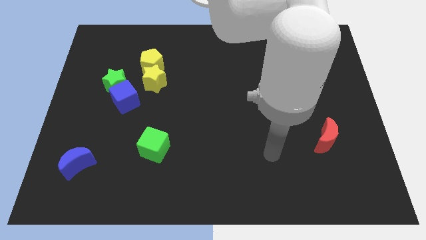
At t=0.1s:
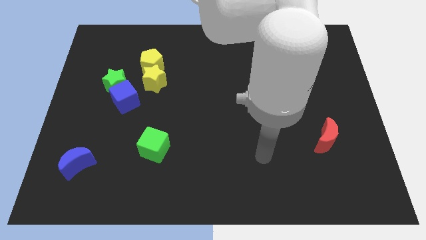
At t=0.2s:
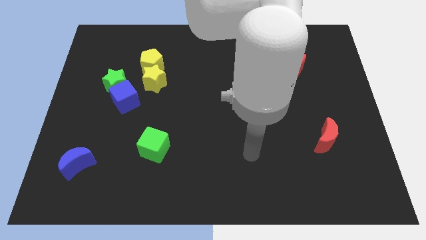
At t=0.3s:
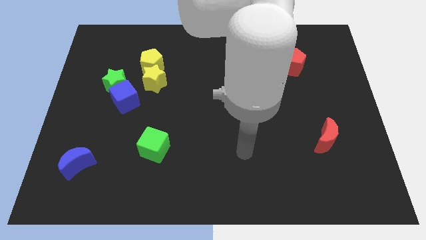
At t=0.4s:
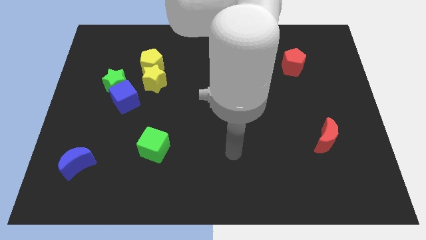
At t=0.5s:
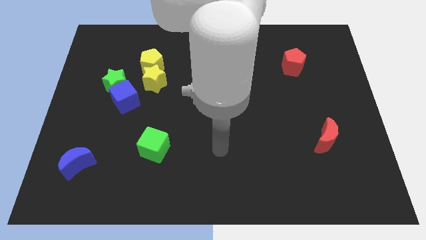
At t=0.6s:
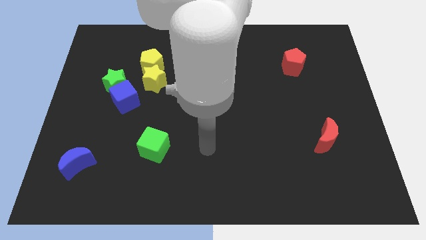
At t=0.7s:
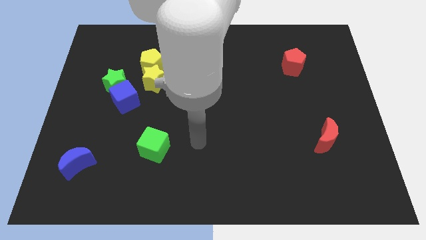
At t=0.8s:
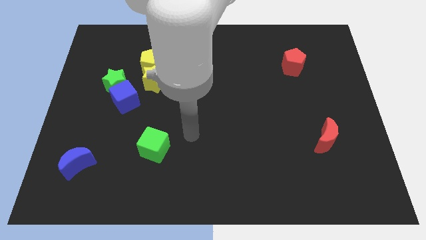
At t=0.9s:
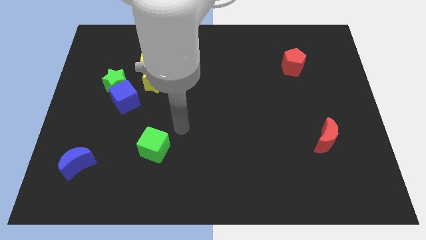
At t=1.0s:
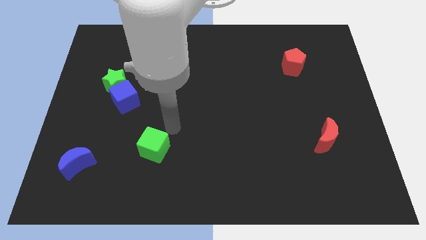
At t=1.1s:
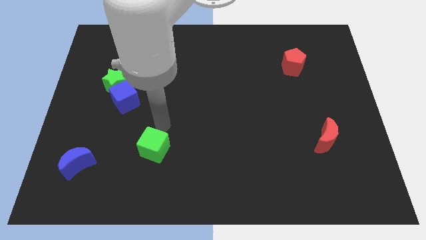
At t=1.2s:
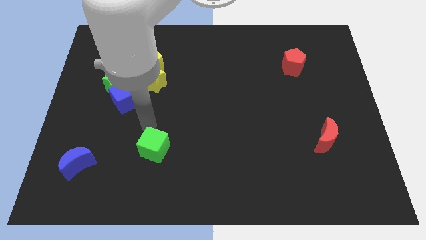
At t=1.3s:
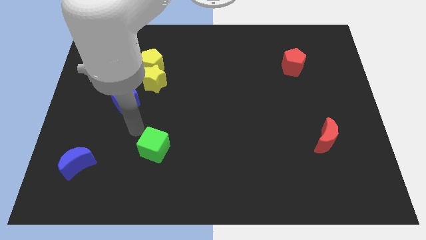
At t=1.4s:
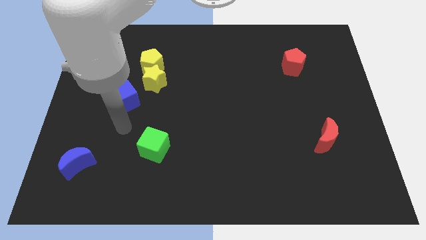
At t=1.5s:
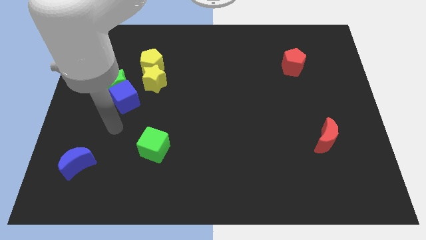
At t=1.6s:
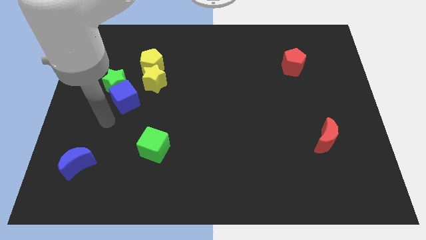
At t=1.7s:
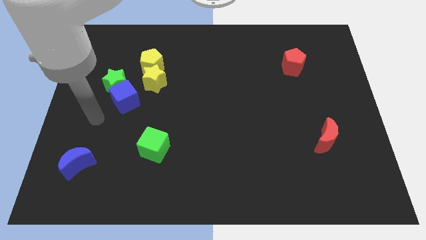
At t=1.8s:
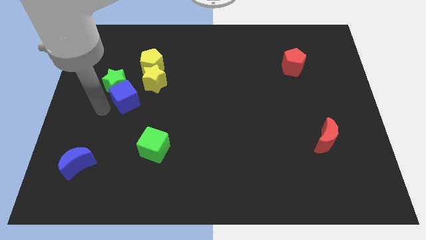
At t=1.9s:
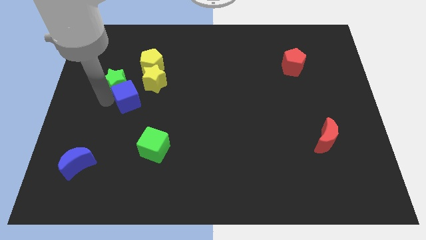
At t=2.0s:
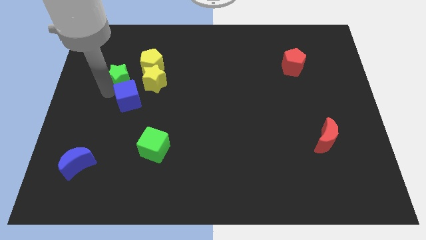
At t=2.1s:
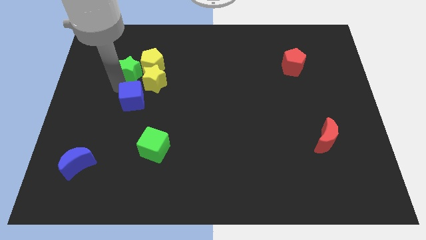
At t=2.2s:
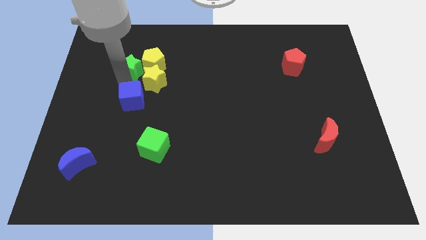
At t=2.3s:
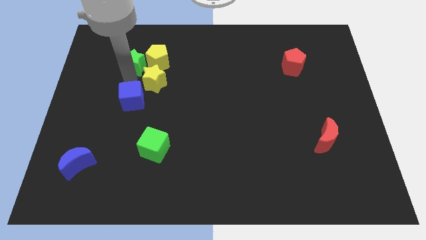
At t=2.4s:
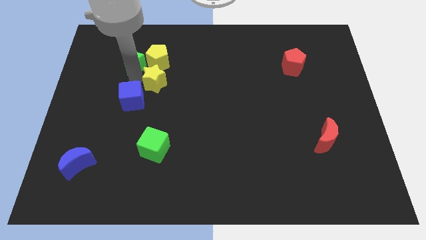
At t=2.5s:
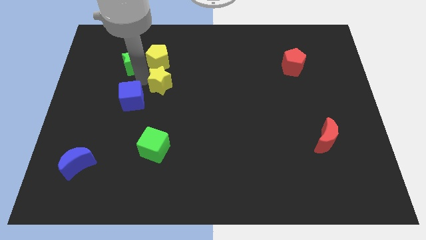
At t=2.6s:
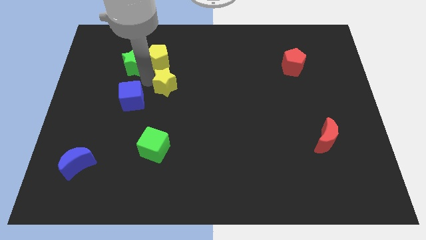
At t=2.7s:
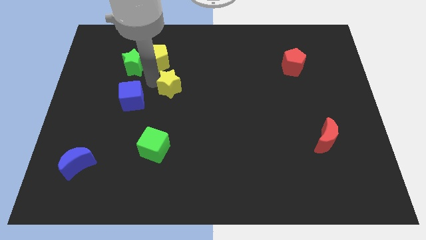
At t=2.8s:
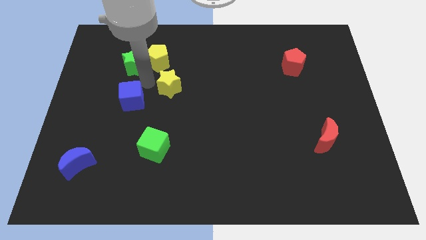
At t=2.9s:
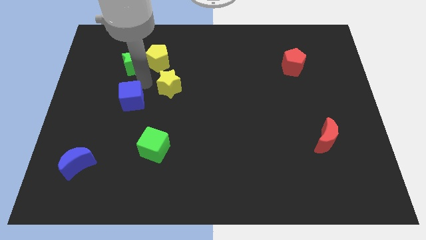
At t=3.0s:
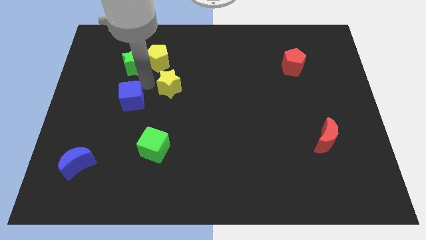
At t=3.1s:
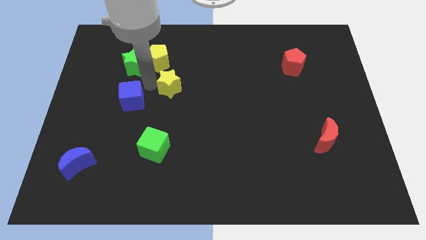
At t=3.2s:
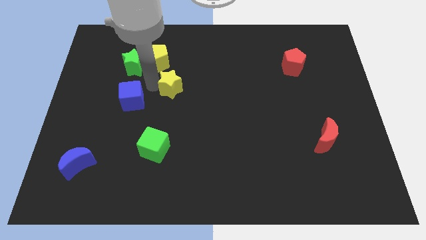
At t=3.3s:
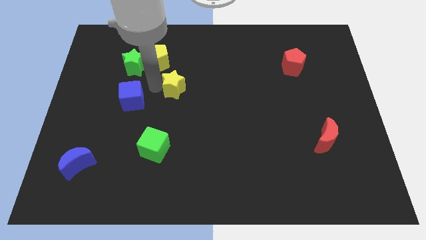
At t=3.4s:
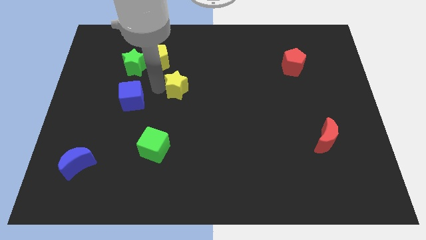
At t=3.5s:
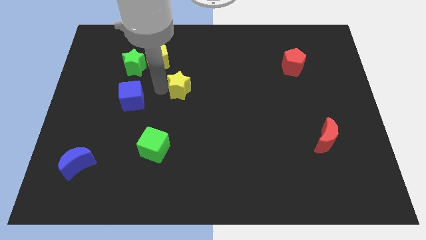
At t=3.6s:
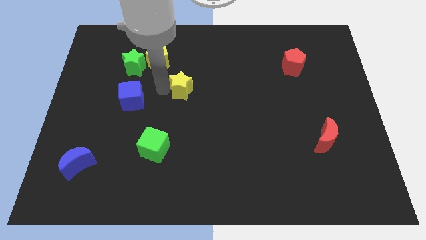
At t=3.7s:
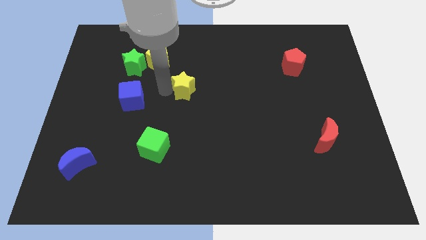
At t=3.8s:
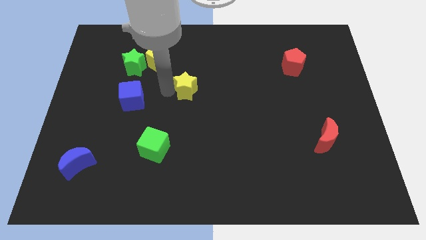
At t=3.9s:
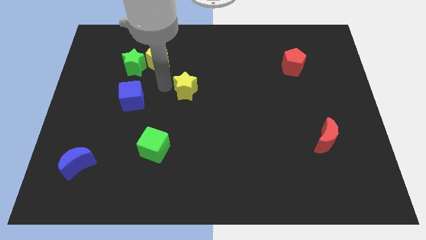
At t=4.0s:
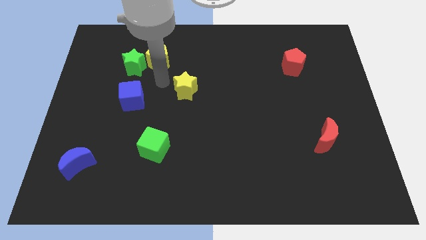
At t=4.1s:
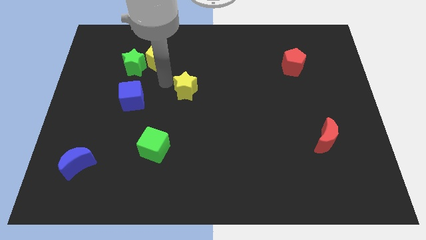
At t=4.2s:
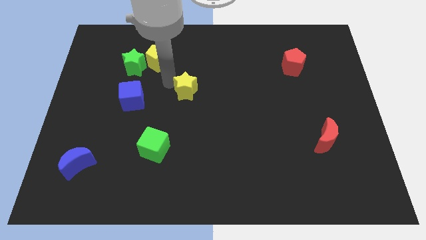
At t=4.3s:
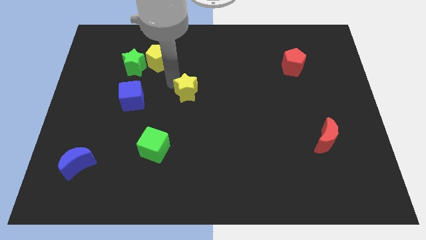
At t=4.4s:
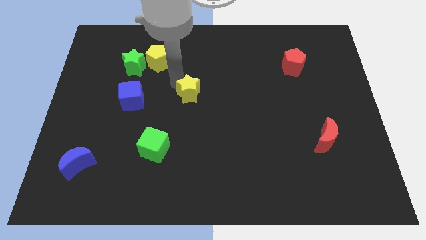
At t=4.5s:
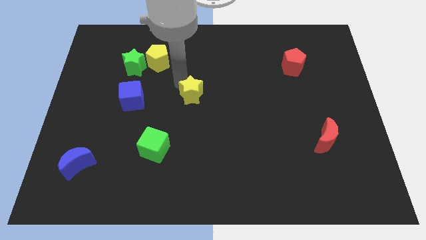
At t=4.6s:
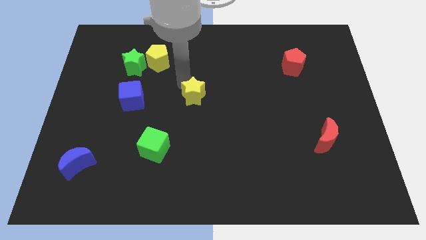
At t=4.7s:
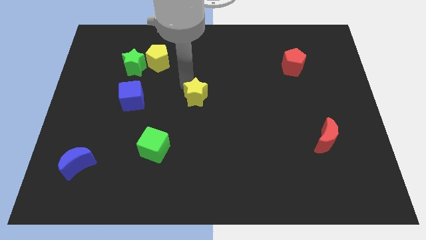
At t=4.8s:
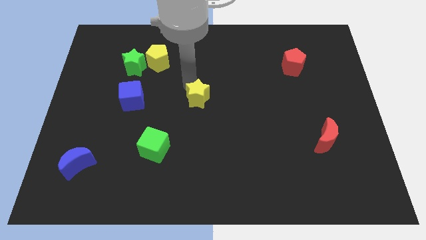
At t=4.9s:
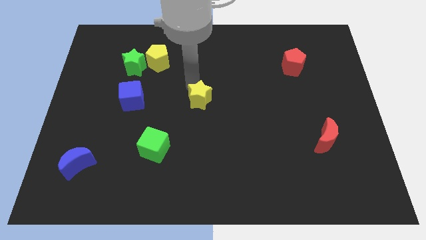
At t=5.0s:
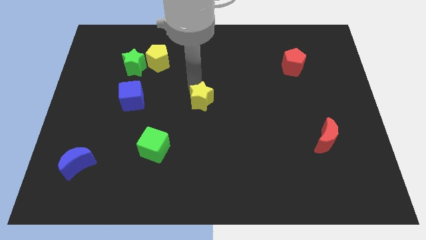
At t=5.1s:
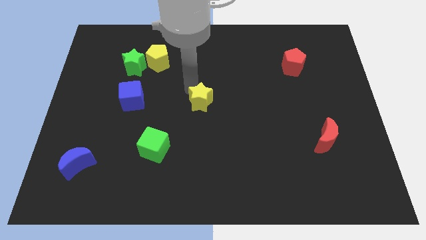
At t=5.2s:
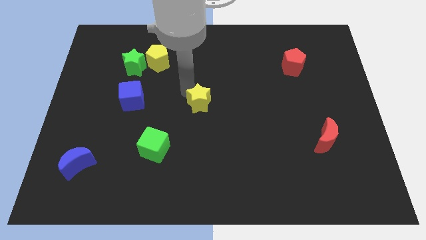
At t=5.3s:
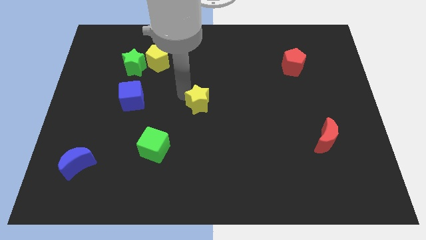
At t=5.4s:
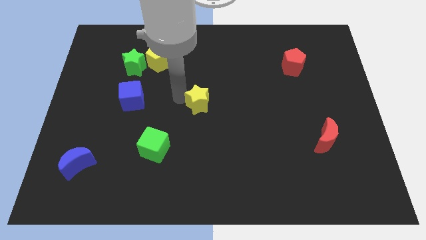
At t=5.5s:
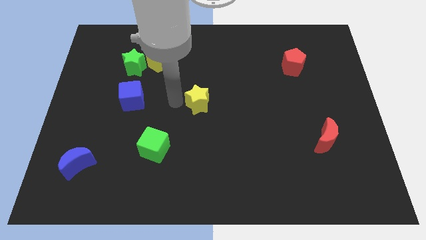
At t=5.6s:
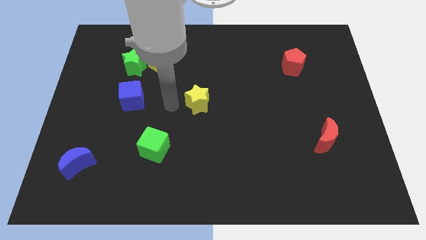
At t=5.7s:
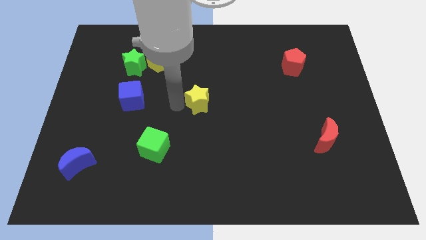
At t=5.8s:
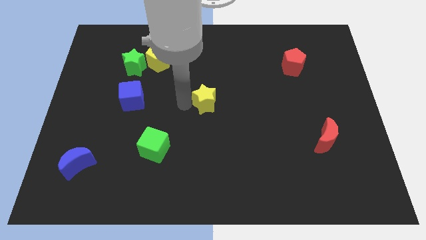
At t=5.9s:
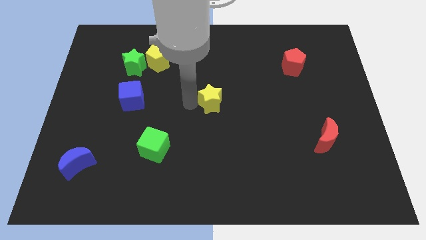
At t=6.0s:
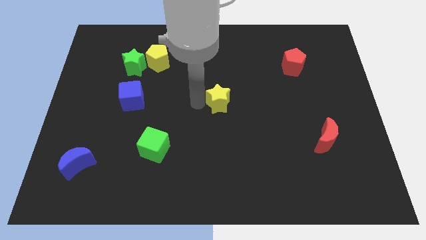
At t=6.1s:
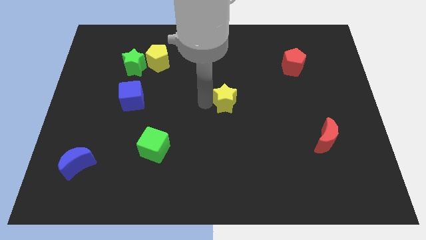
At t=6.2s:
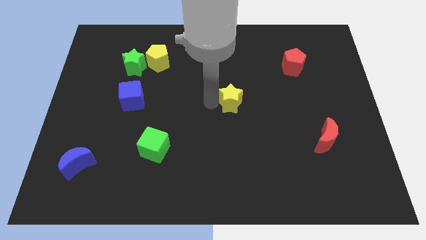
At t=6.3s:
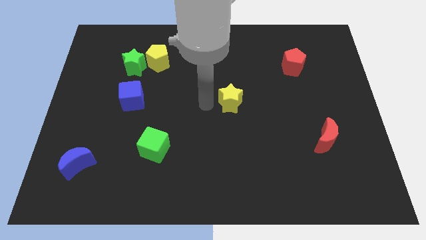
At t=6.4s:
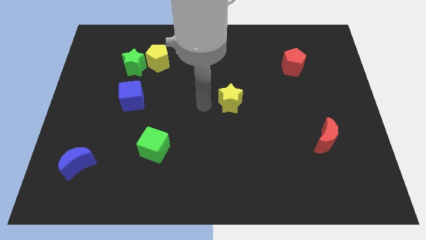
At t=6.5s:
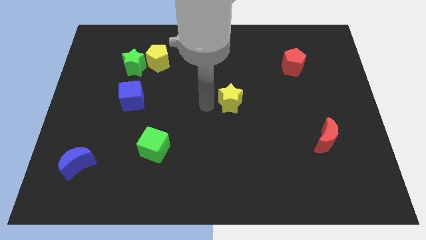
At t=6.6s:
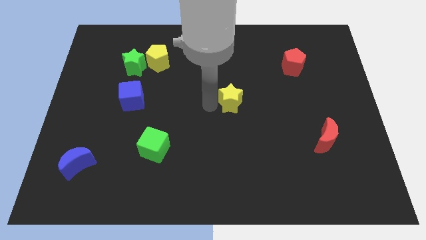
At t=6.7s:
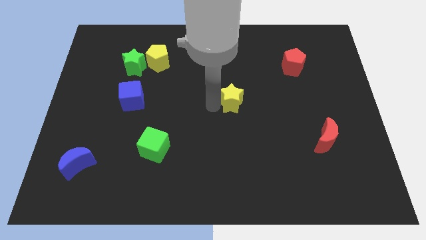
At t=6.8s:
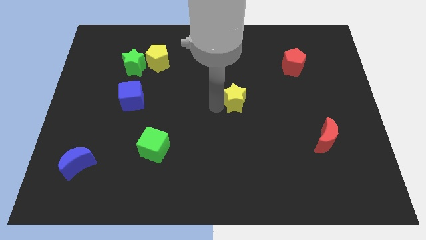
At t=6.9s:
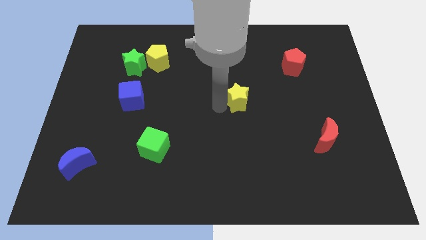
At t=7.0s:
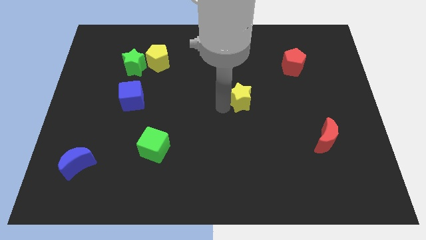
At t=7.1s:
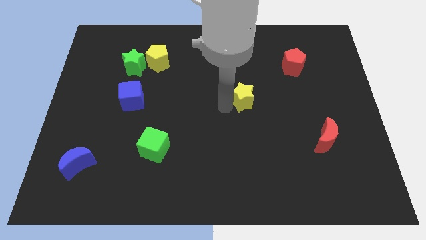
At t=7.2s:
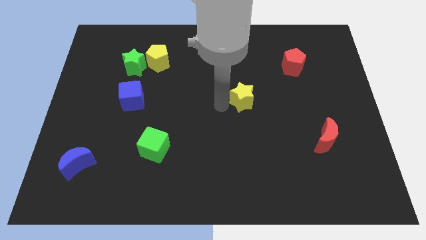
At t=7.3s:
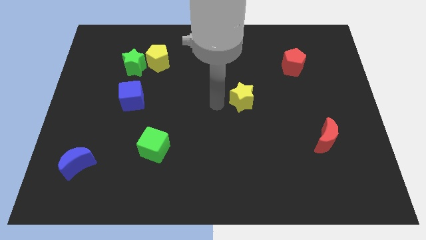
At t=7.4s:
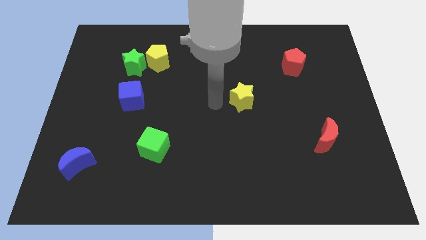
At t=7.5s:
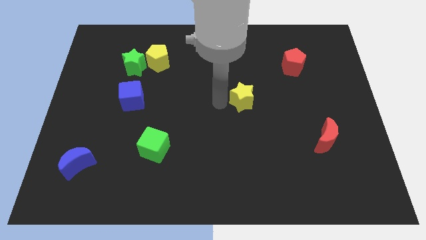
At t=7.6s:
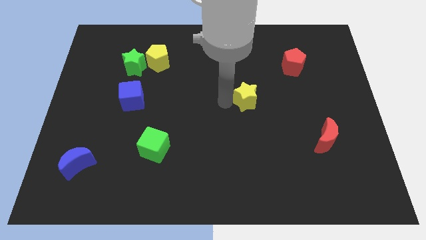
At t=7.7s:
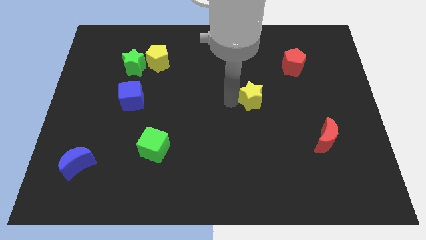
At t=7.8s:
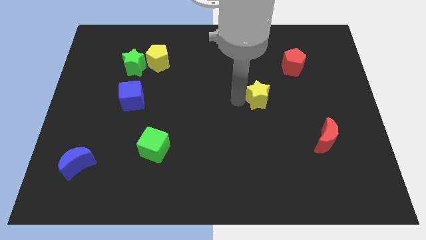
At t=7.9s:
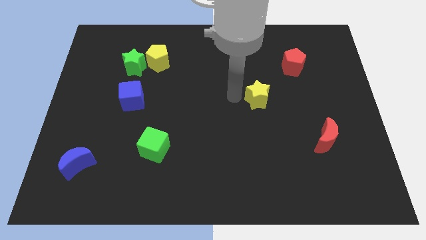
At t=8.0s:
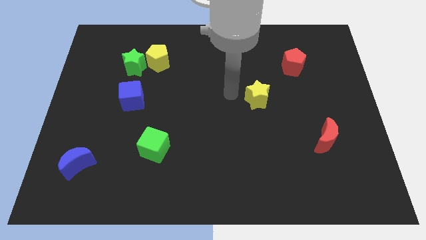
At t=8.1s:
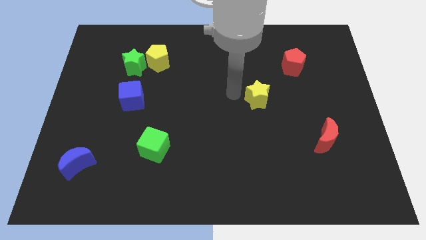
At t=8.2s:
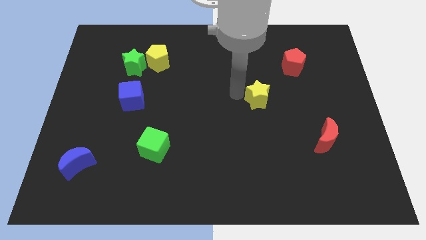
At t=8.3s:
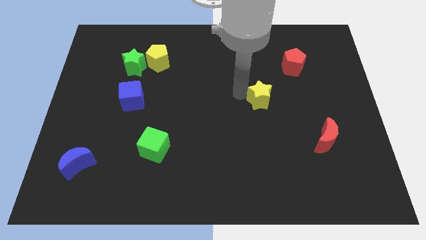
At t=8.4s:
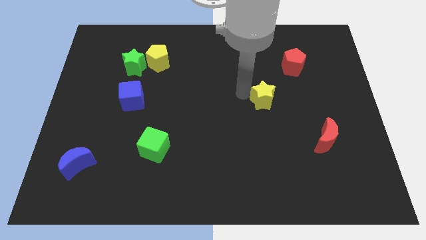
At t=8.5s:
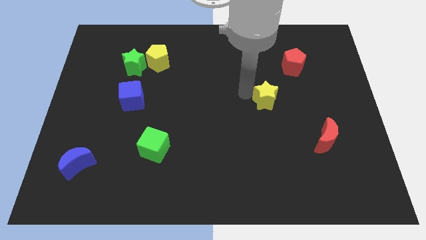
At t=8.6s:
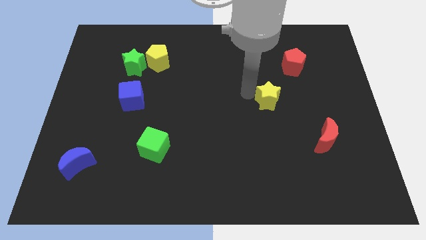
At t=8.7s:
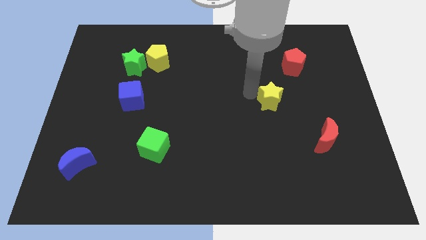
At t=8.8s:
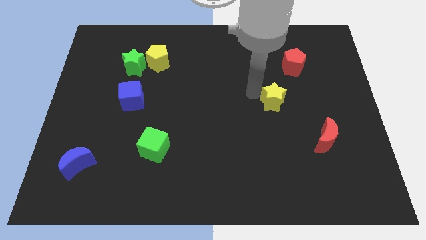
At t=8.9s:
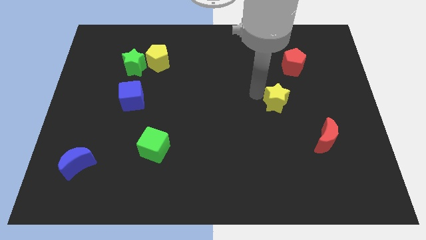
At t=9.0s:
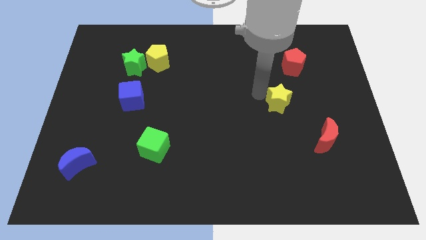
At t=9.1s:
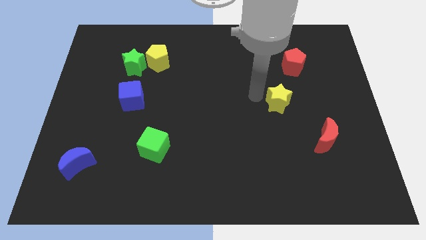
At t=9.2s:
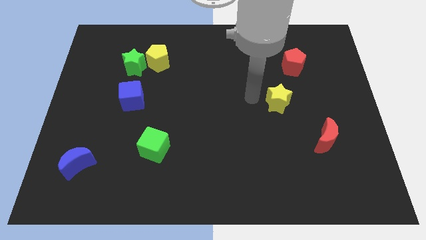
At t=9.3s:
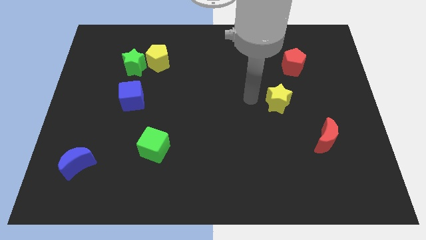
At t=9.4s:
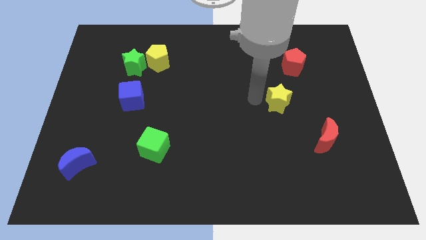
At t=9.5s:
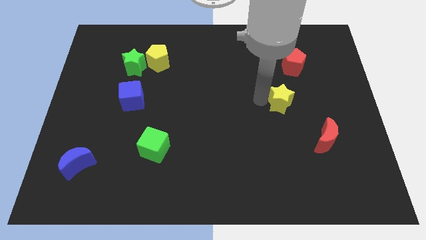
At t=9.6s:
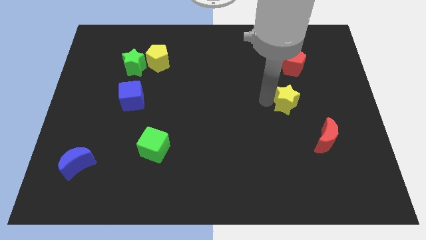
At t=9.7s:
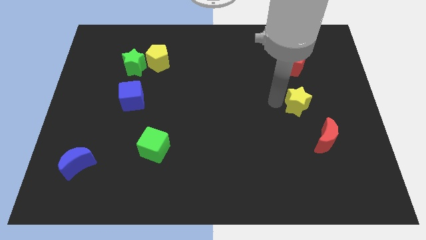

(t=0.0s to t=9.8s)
push the yellow star to the top side of the red moon
